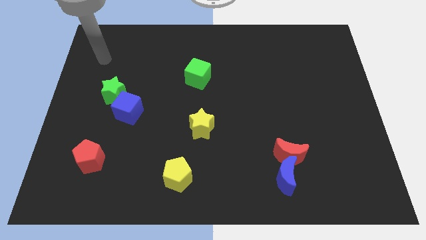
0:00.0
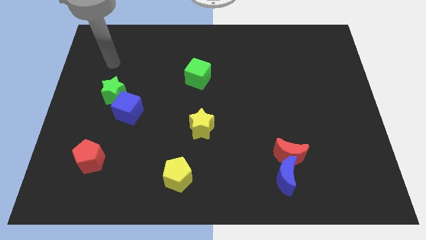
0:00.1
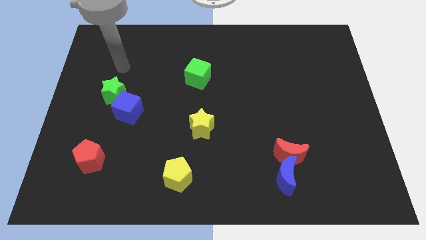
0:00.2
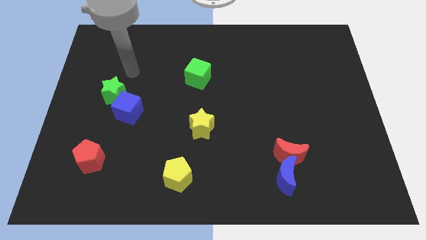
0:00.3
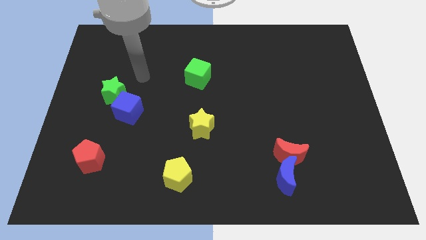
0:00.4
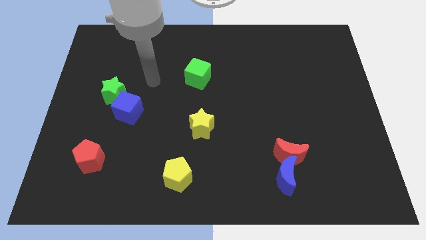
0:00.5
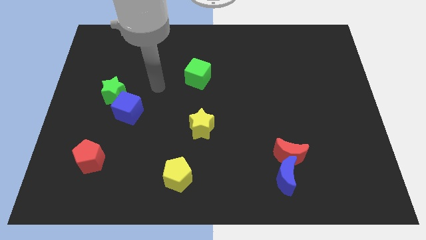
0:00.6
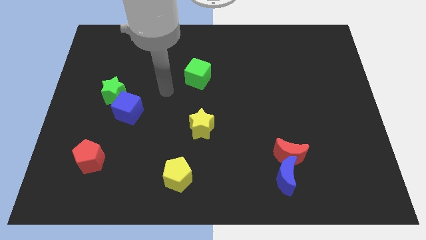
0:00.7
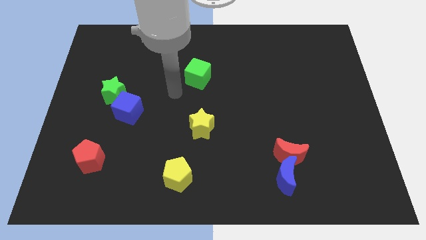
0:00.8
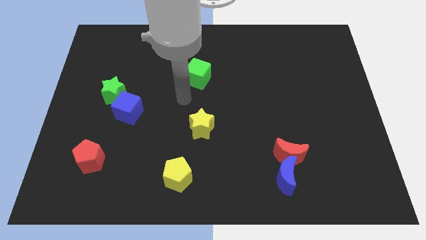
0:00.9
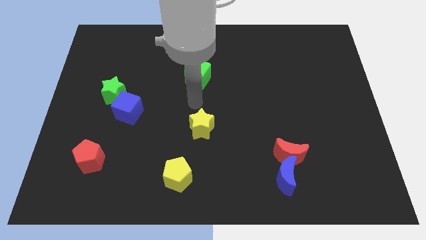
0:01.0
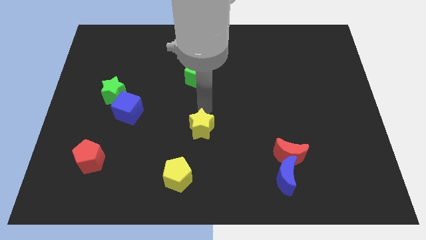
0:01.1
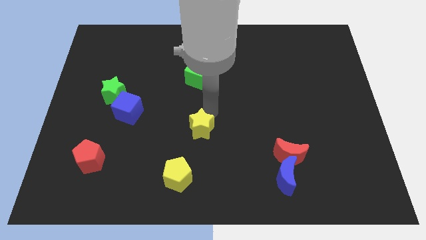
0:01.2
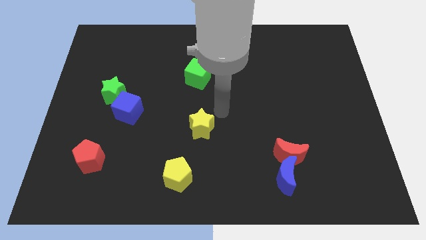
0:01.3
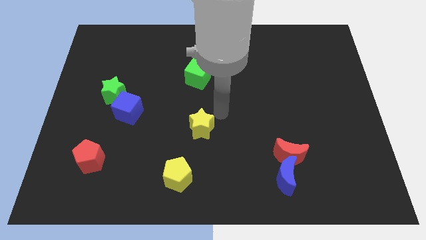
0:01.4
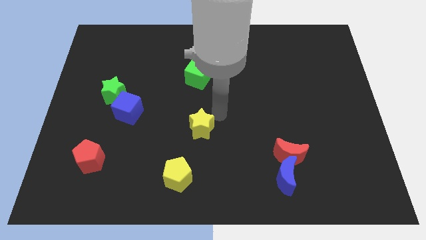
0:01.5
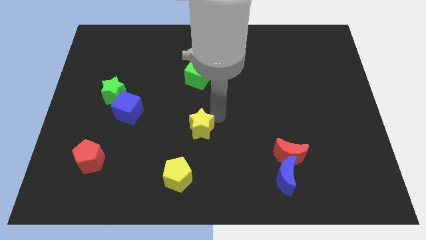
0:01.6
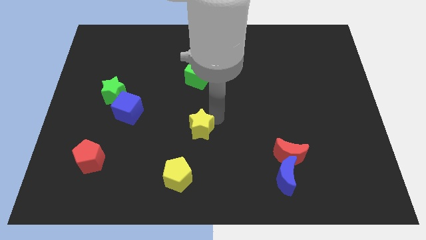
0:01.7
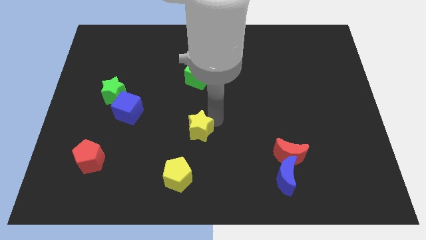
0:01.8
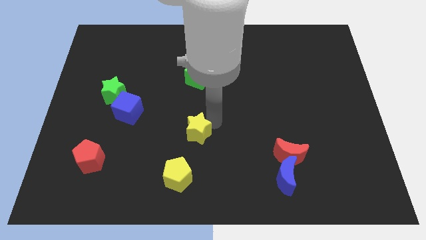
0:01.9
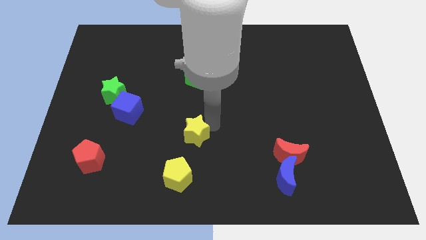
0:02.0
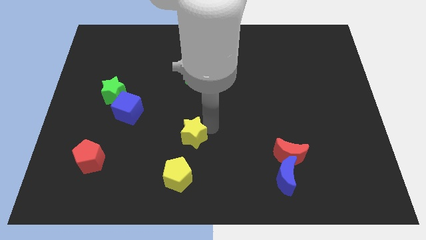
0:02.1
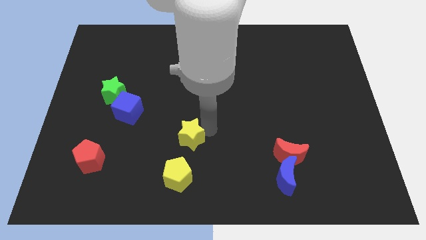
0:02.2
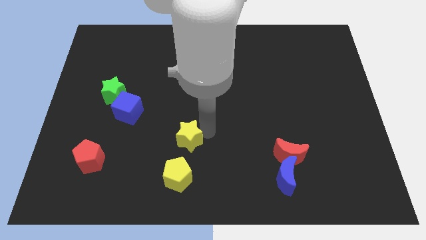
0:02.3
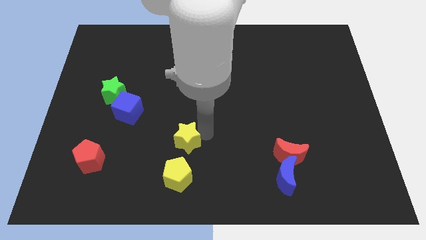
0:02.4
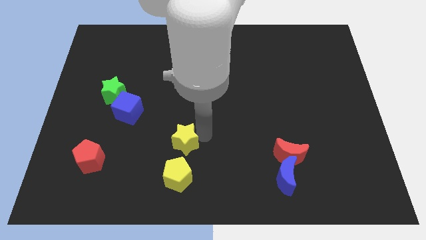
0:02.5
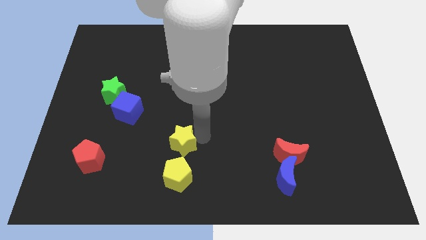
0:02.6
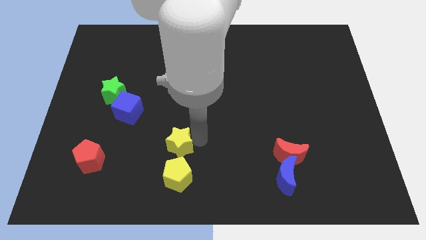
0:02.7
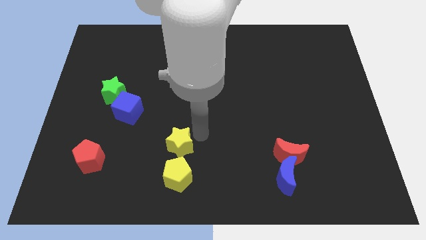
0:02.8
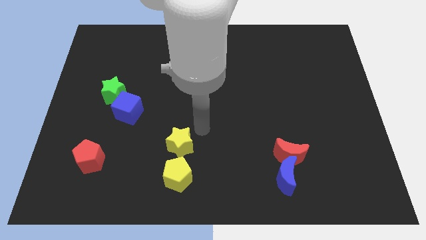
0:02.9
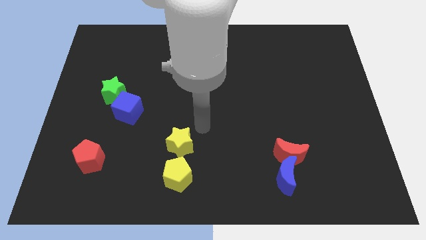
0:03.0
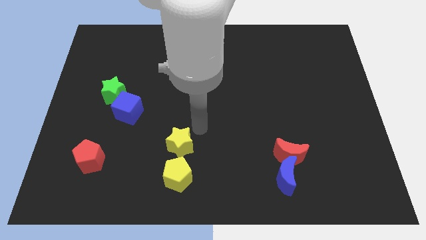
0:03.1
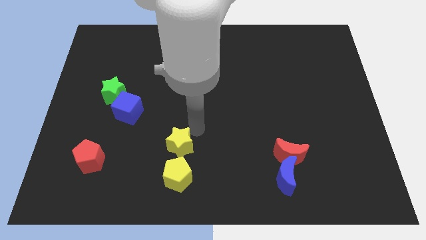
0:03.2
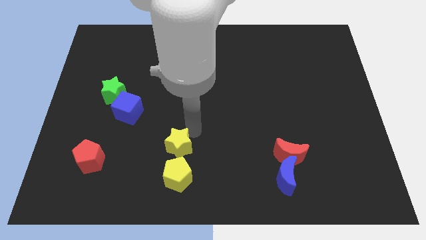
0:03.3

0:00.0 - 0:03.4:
move the yellow star downwards and left diagonally somewhat

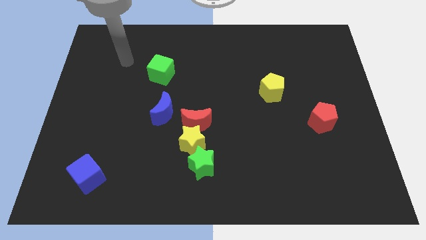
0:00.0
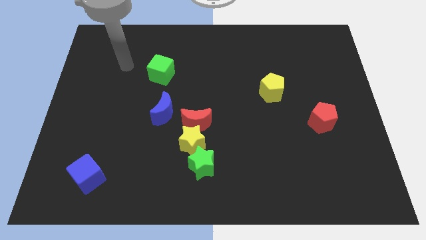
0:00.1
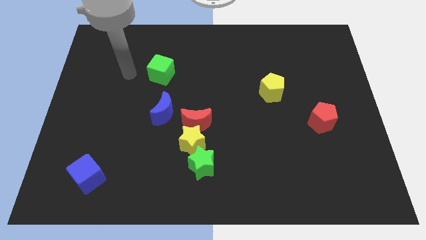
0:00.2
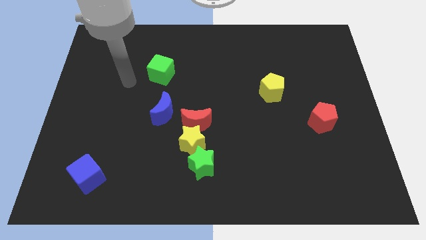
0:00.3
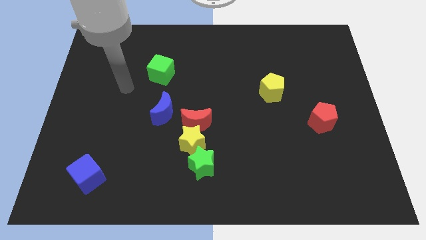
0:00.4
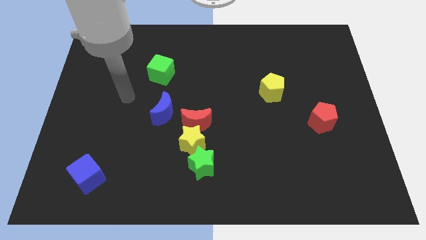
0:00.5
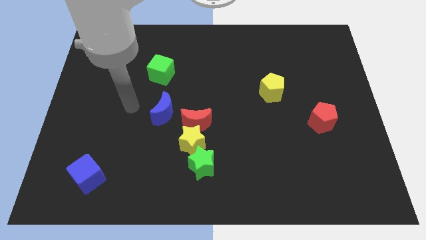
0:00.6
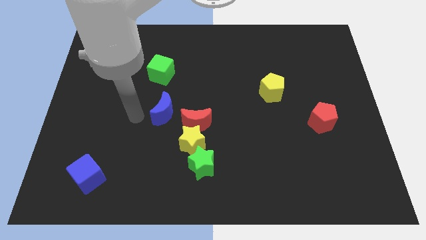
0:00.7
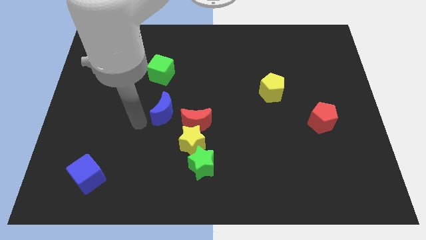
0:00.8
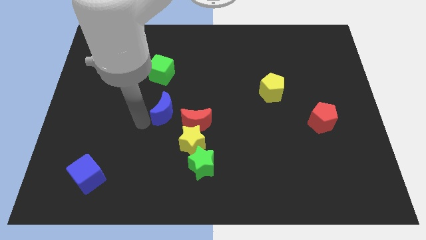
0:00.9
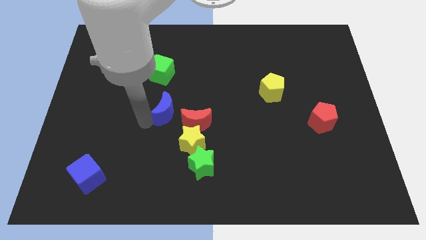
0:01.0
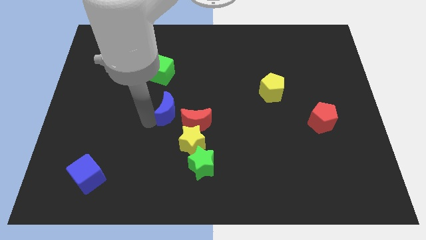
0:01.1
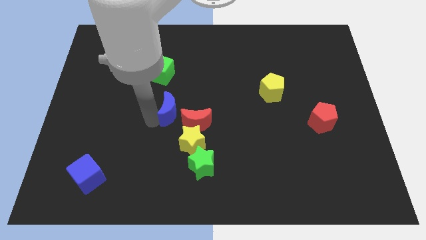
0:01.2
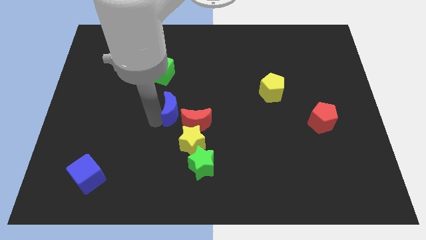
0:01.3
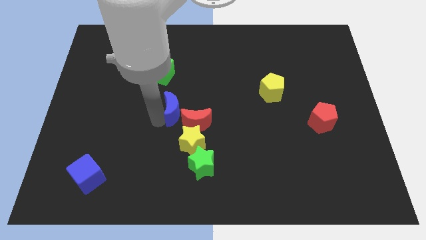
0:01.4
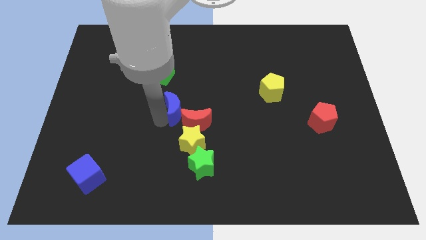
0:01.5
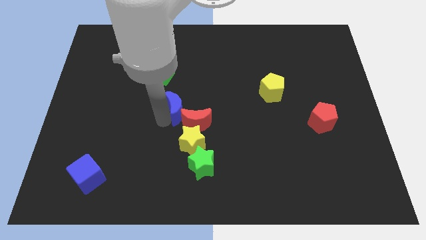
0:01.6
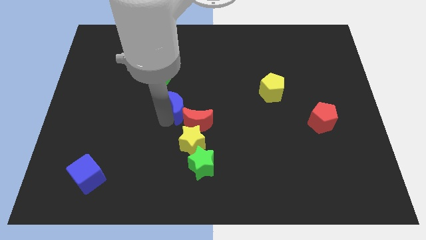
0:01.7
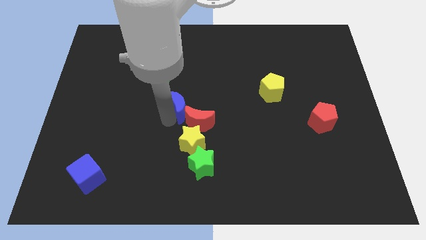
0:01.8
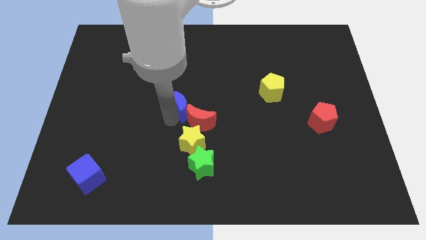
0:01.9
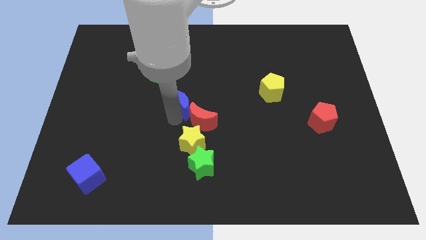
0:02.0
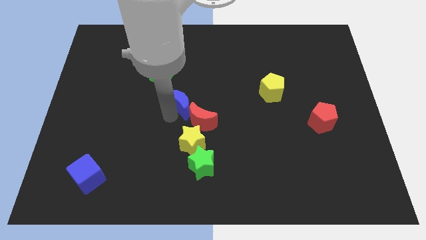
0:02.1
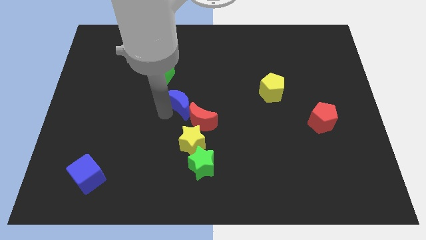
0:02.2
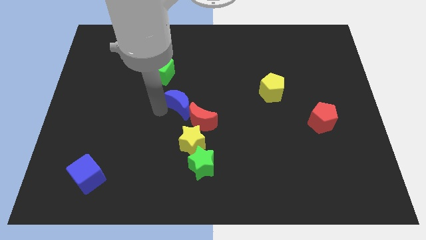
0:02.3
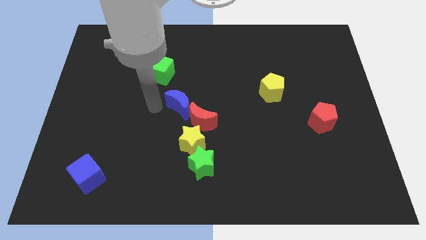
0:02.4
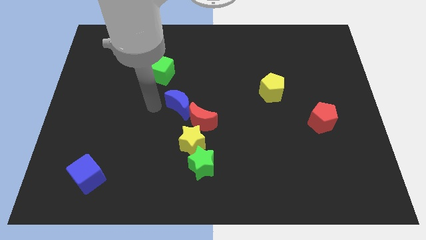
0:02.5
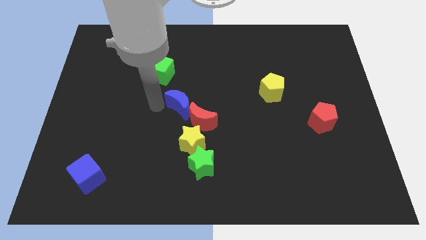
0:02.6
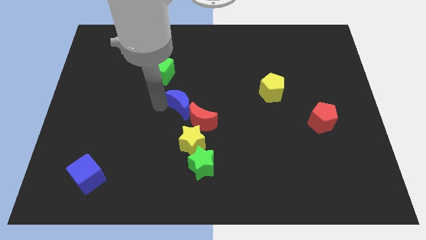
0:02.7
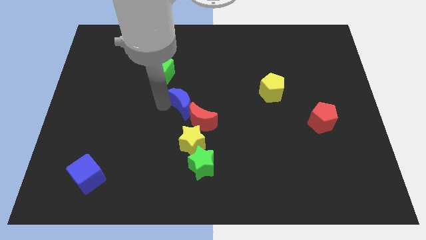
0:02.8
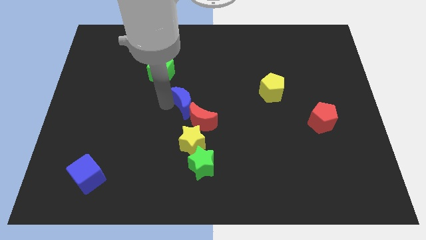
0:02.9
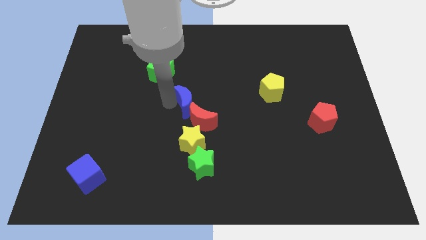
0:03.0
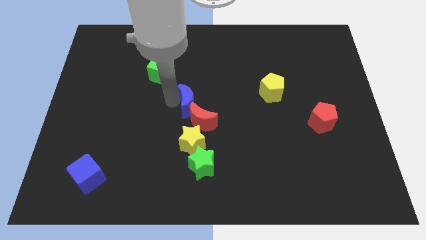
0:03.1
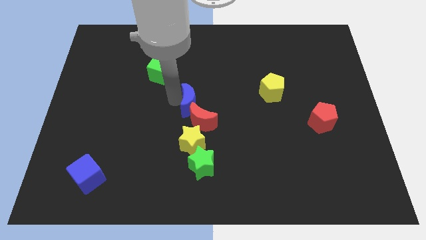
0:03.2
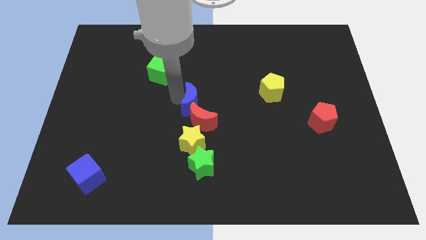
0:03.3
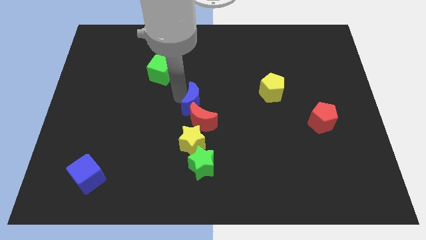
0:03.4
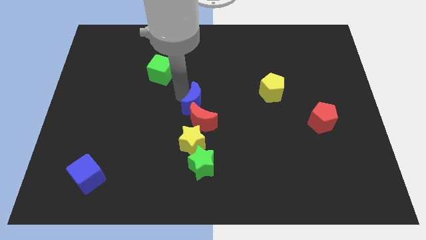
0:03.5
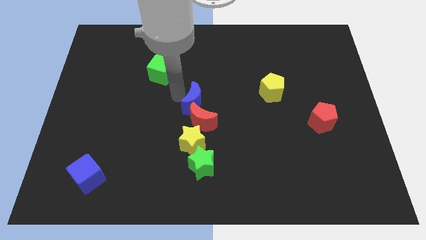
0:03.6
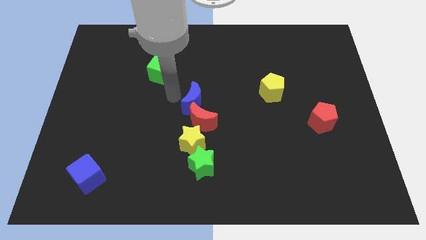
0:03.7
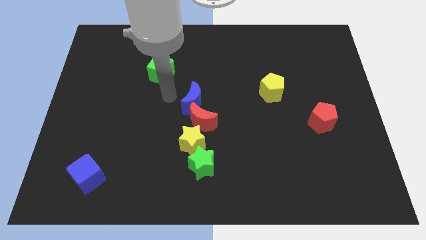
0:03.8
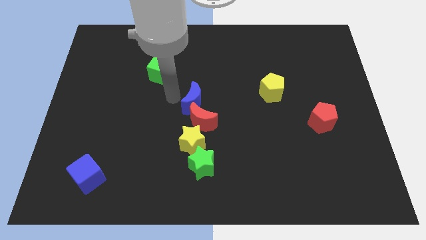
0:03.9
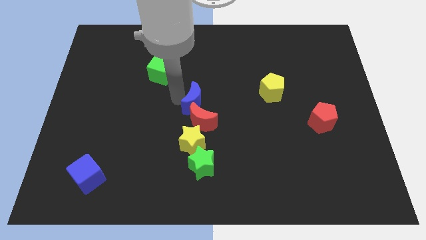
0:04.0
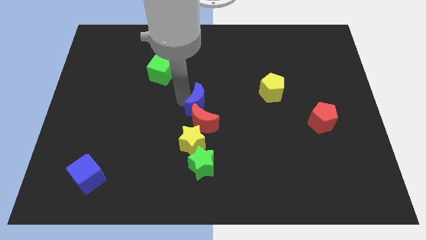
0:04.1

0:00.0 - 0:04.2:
push the blue moon a little to the right

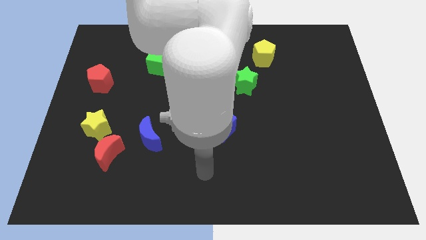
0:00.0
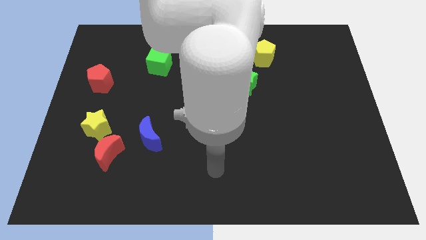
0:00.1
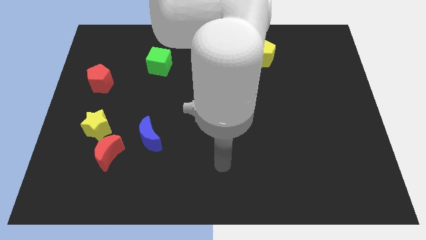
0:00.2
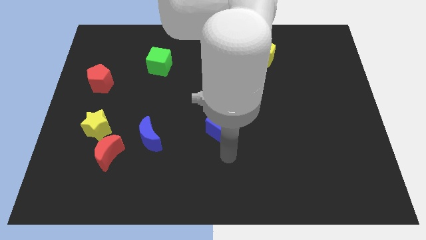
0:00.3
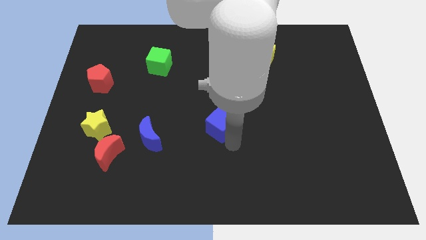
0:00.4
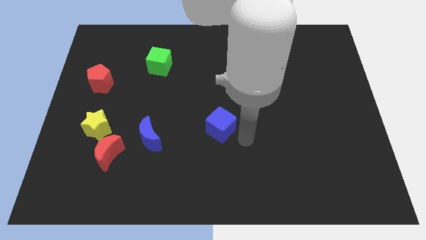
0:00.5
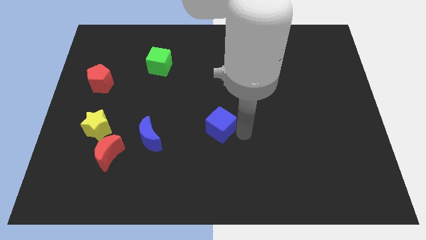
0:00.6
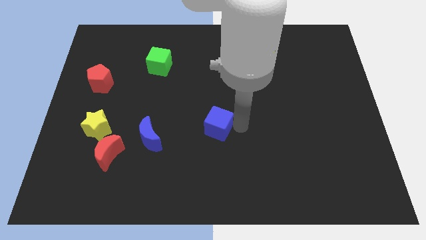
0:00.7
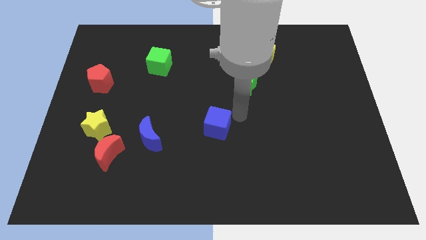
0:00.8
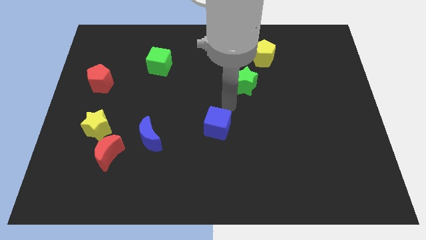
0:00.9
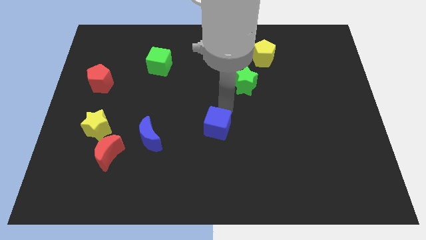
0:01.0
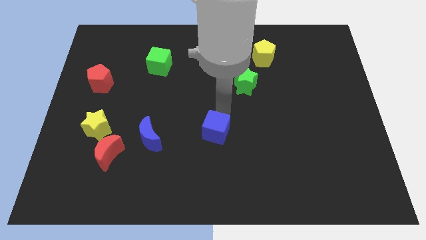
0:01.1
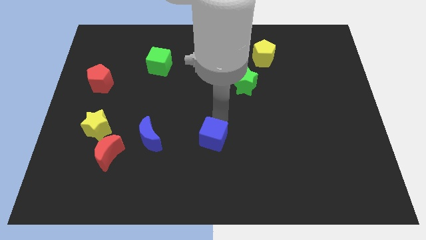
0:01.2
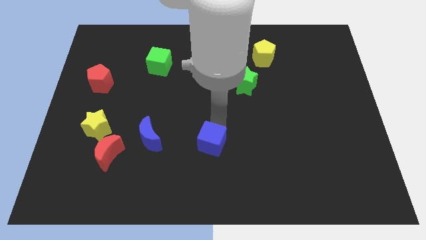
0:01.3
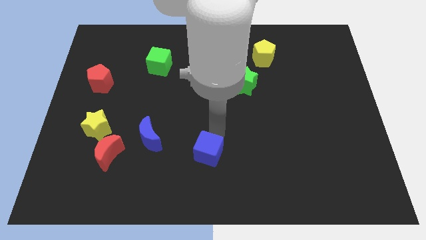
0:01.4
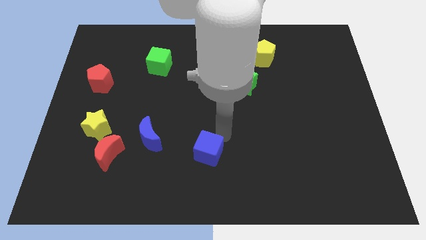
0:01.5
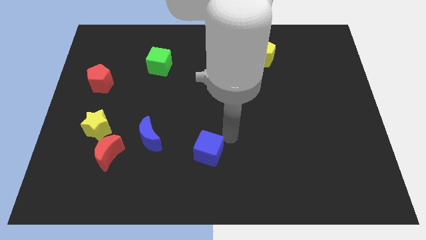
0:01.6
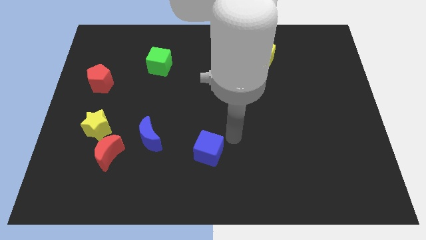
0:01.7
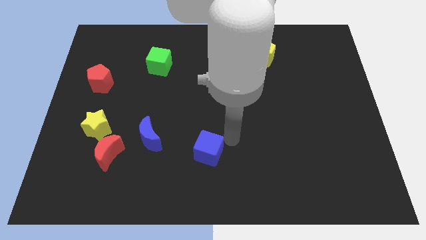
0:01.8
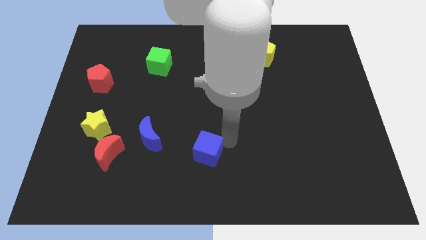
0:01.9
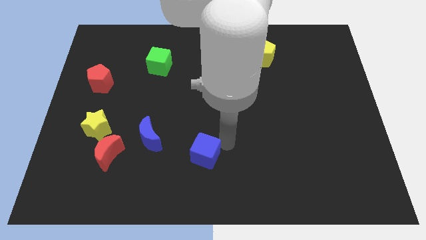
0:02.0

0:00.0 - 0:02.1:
move the blue cube downwards and to the left diagonally slightly
